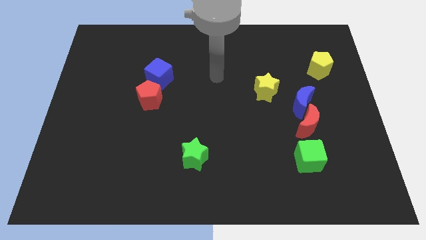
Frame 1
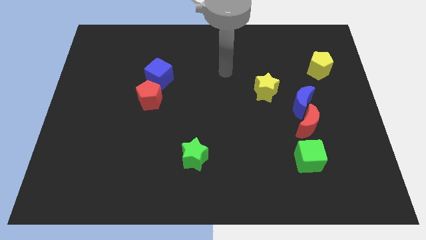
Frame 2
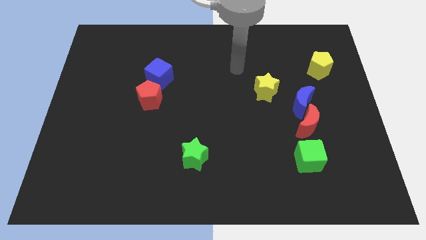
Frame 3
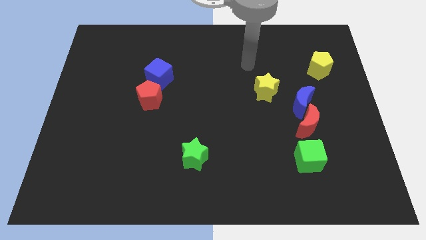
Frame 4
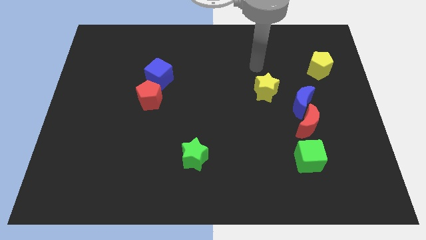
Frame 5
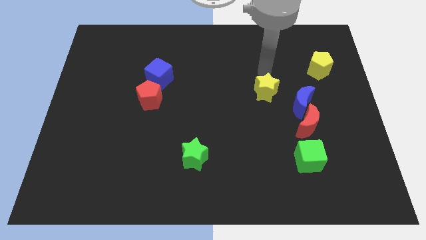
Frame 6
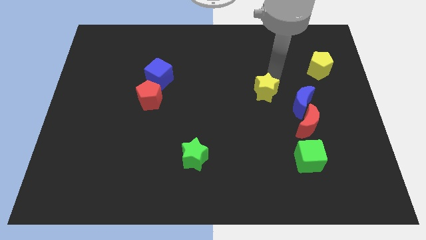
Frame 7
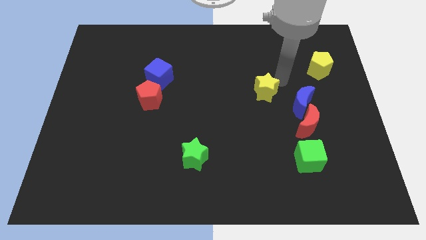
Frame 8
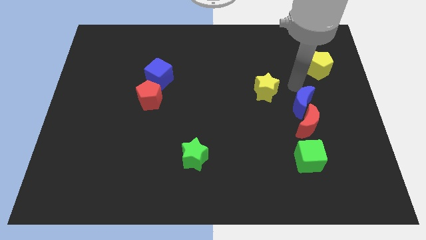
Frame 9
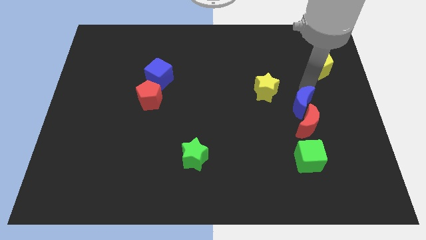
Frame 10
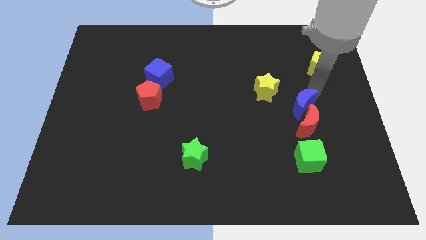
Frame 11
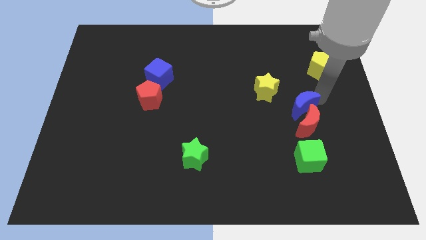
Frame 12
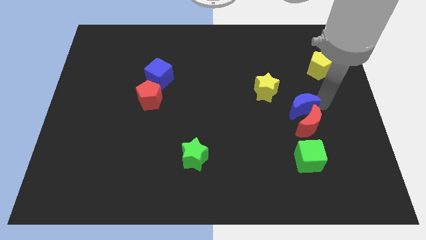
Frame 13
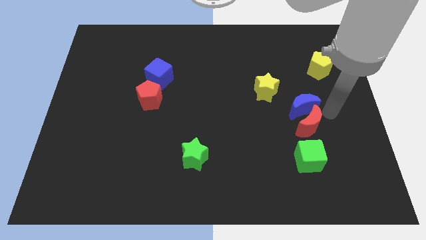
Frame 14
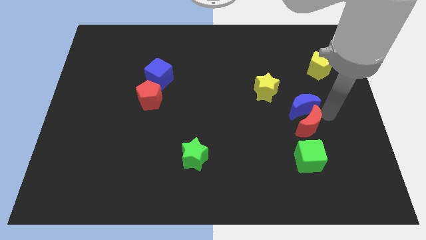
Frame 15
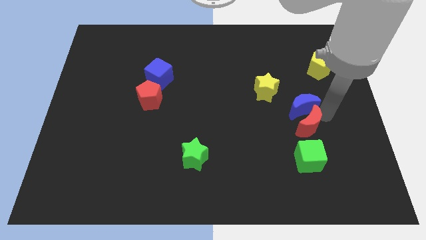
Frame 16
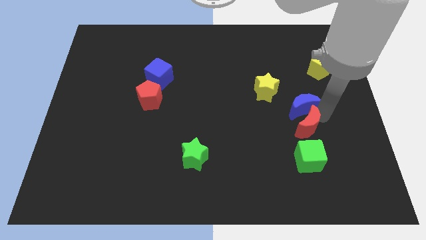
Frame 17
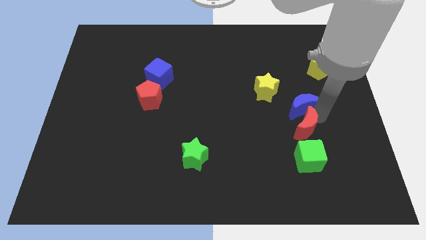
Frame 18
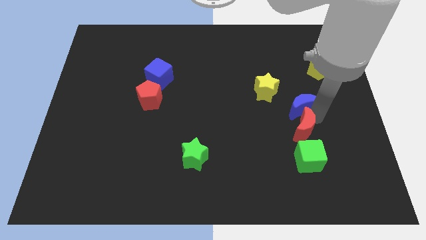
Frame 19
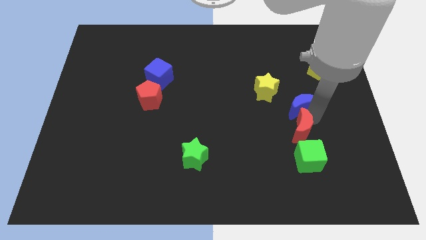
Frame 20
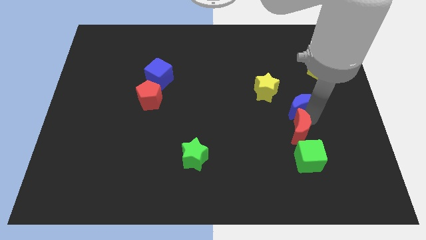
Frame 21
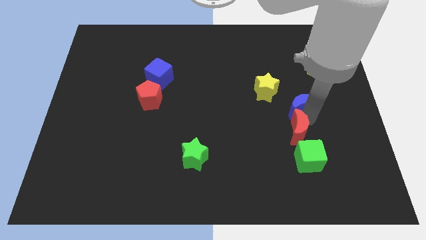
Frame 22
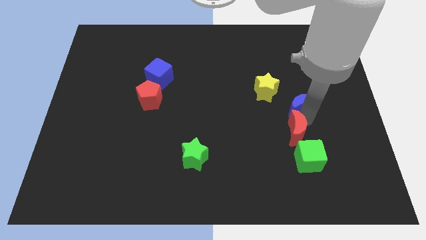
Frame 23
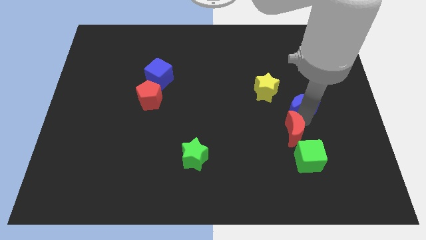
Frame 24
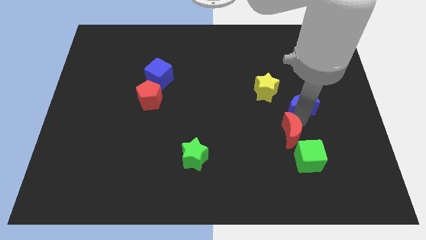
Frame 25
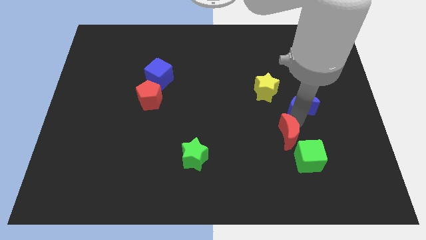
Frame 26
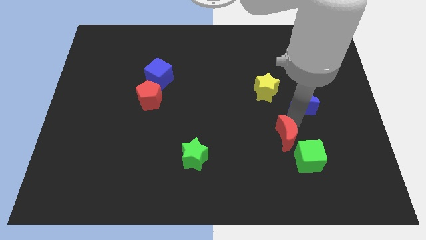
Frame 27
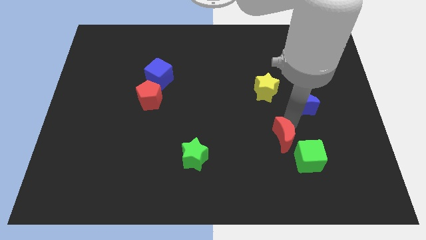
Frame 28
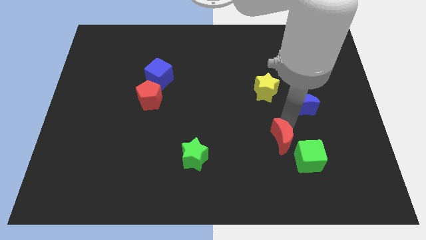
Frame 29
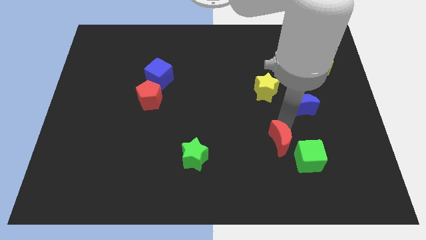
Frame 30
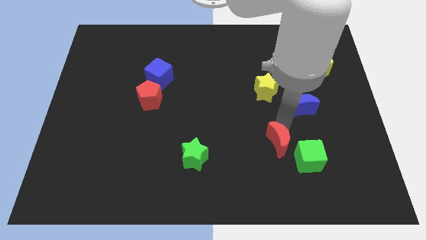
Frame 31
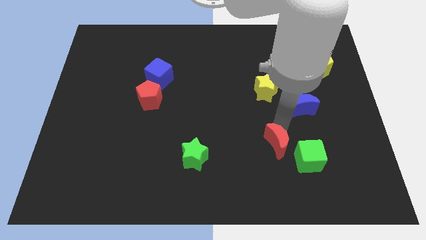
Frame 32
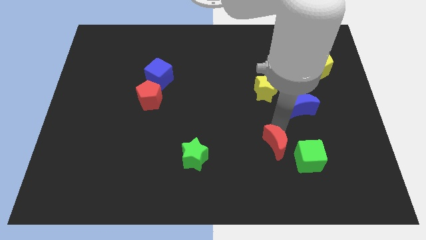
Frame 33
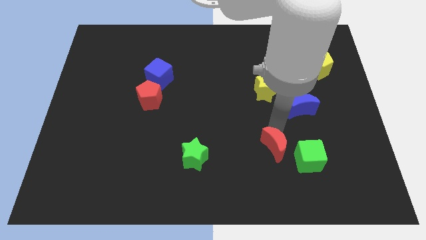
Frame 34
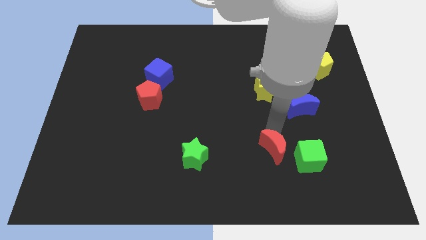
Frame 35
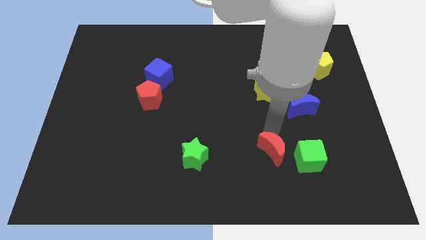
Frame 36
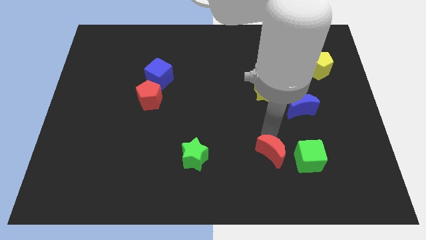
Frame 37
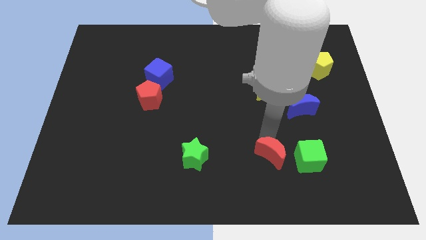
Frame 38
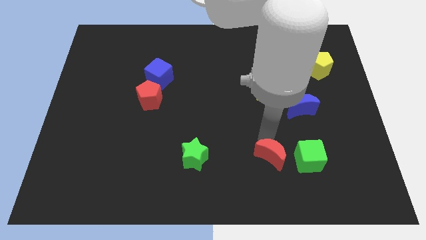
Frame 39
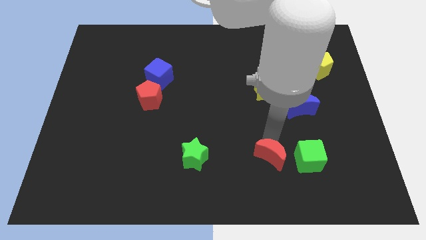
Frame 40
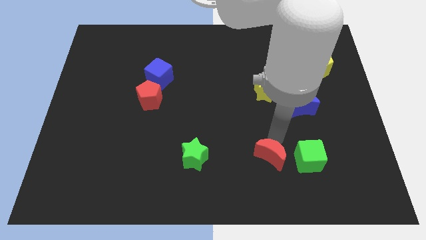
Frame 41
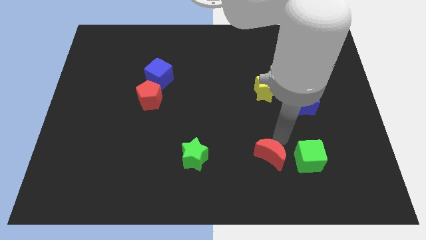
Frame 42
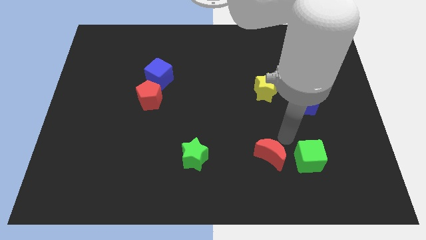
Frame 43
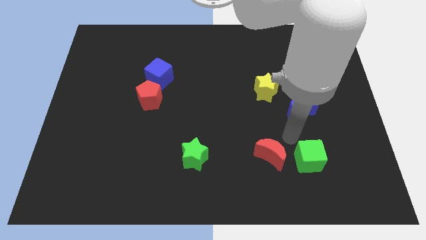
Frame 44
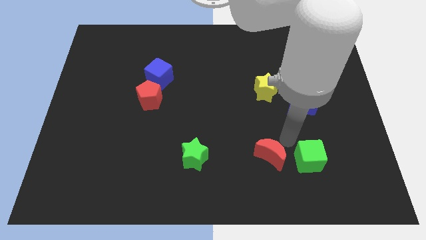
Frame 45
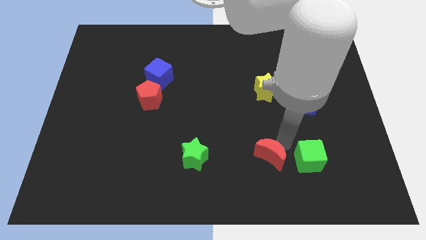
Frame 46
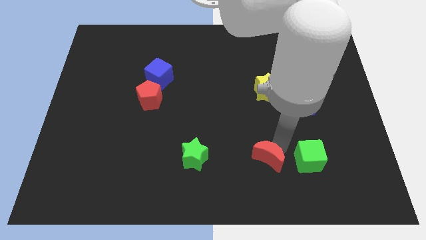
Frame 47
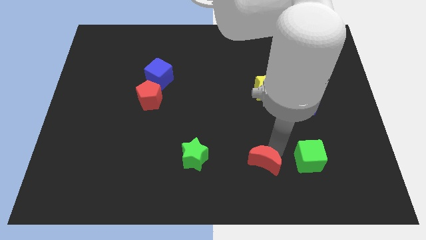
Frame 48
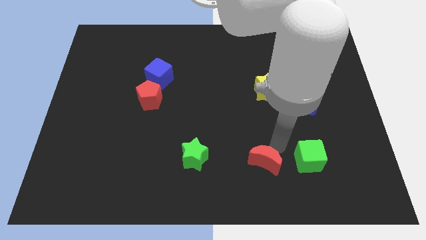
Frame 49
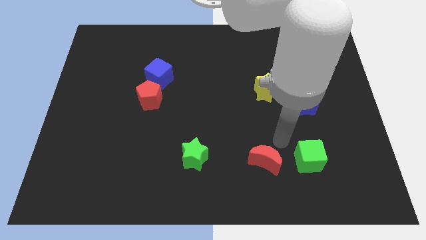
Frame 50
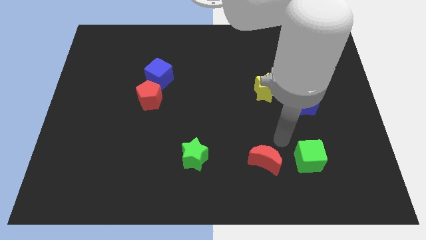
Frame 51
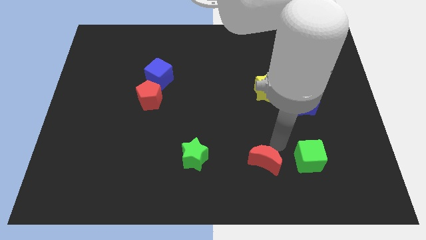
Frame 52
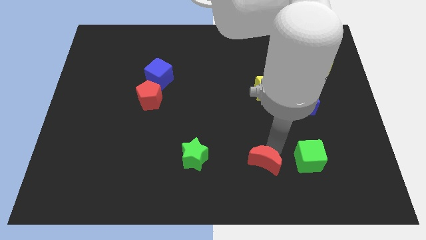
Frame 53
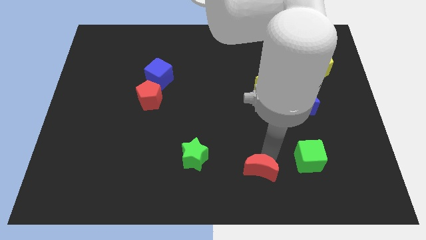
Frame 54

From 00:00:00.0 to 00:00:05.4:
push the red moon to the bottom side

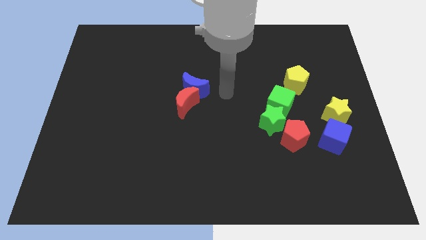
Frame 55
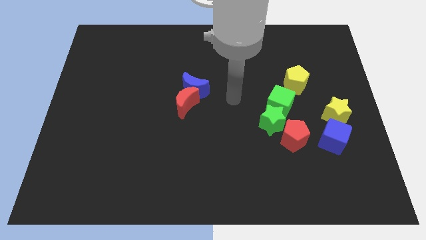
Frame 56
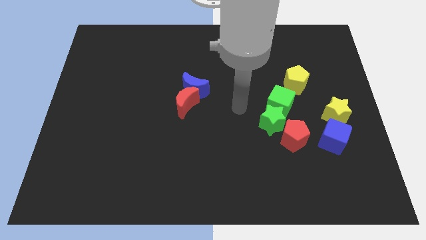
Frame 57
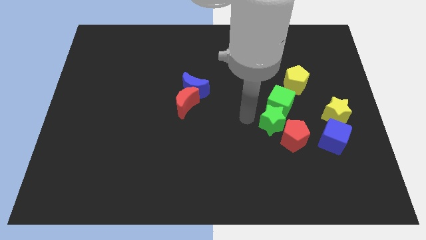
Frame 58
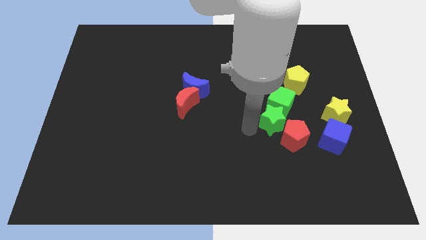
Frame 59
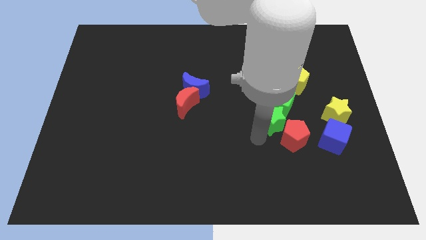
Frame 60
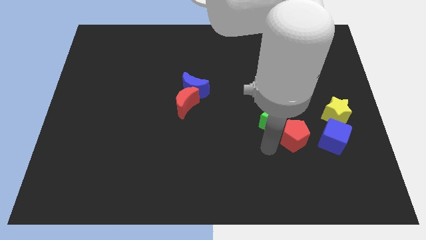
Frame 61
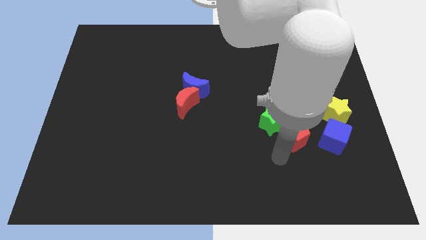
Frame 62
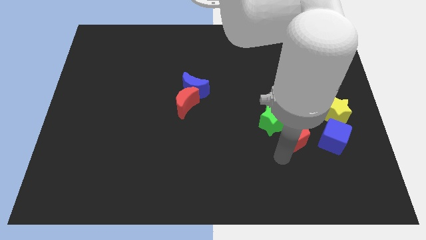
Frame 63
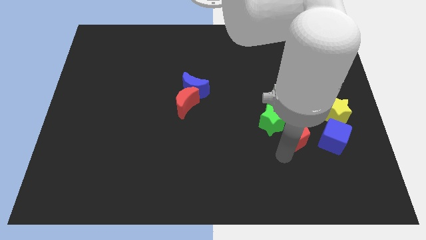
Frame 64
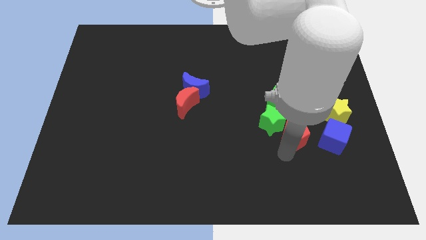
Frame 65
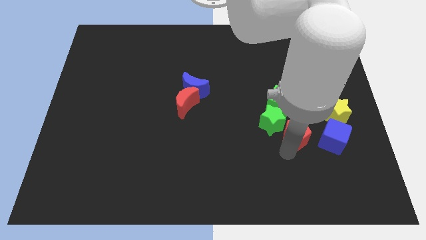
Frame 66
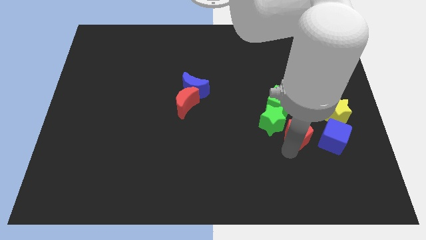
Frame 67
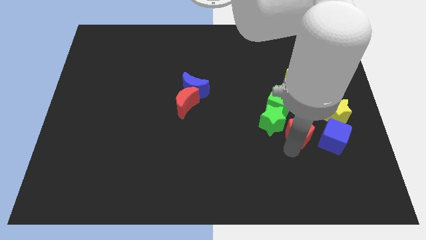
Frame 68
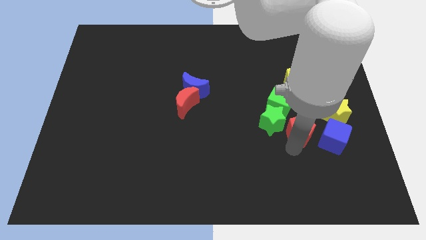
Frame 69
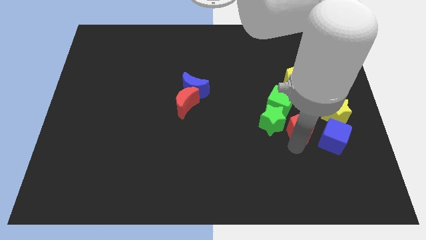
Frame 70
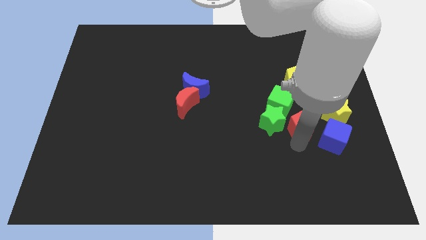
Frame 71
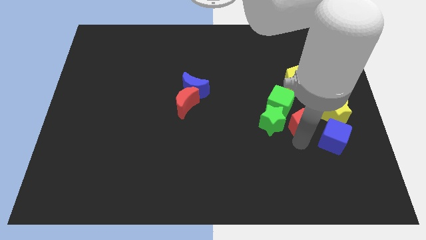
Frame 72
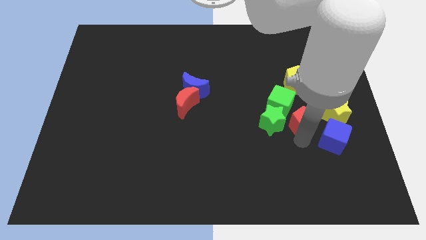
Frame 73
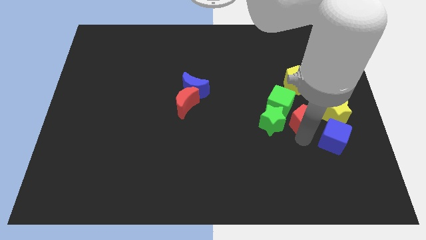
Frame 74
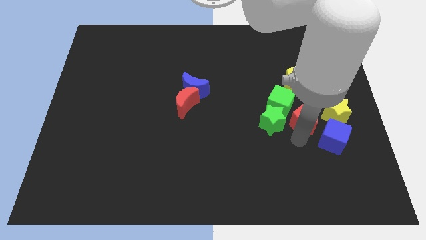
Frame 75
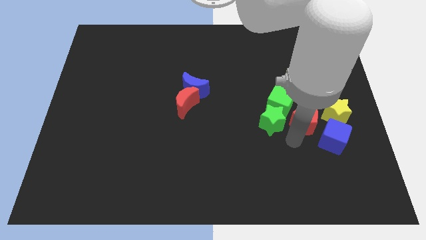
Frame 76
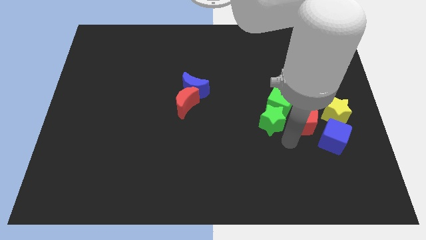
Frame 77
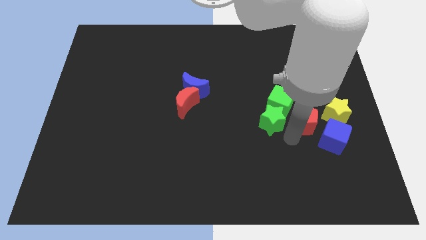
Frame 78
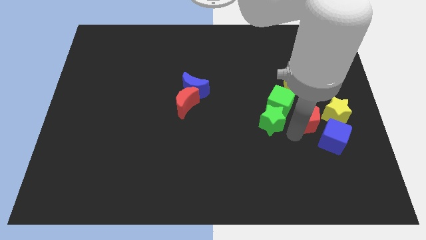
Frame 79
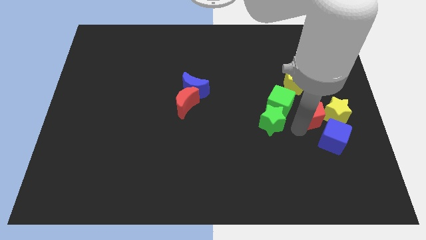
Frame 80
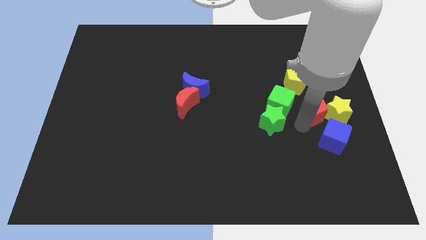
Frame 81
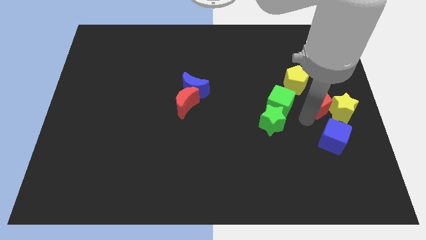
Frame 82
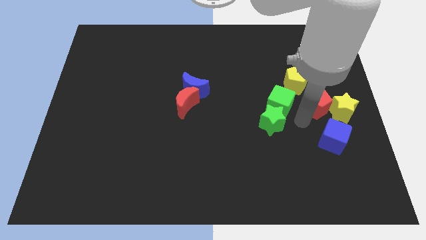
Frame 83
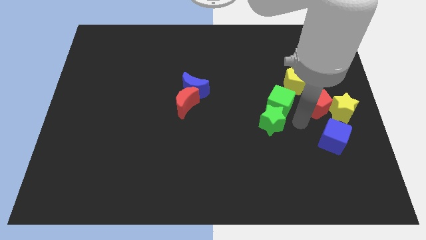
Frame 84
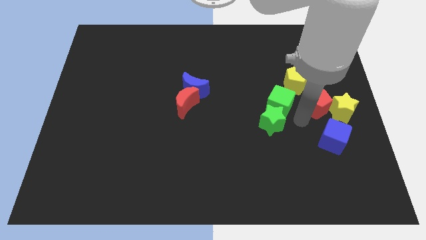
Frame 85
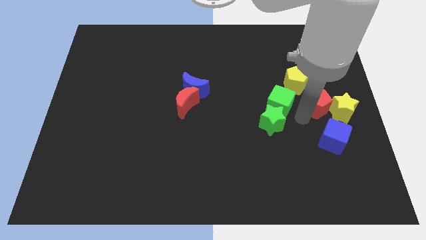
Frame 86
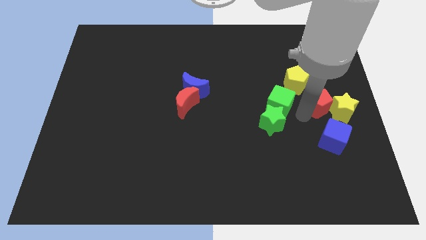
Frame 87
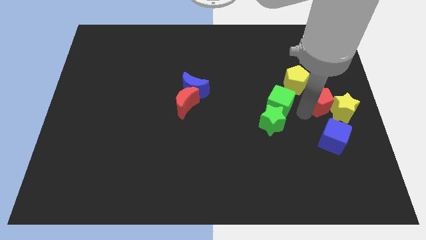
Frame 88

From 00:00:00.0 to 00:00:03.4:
slide the red pentagon to the center right
